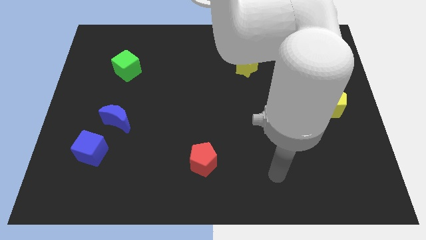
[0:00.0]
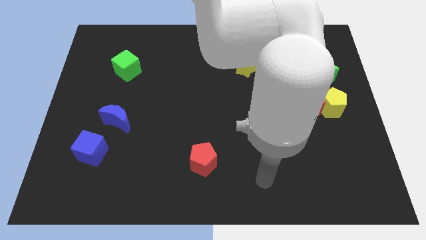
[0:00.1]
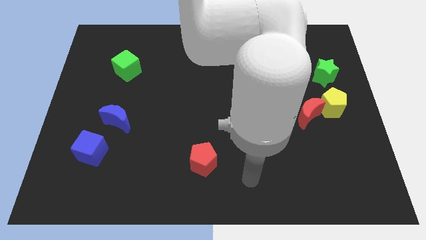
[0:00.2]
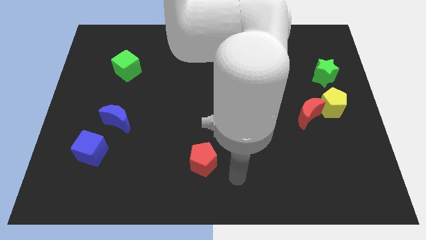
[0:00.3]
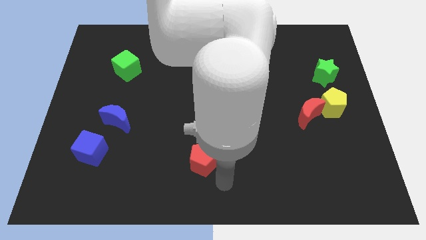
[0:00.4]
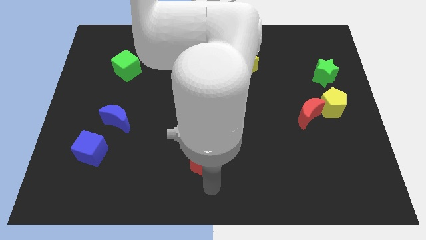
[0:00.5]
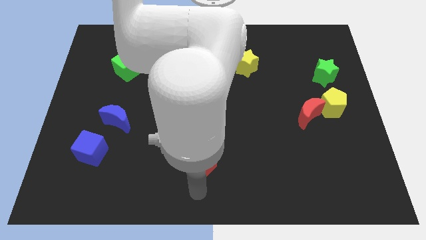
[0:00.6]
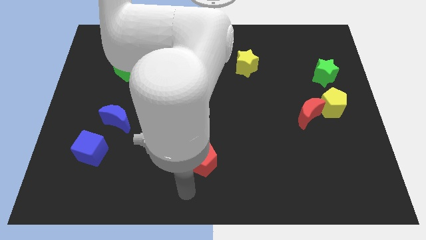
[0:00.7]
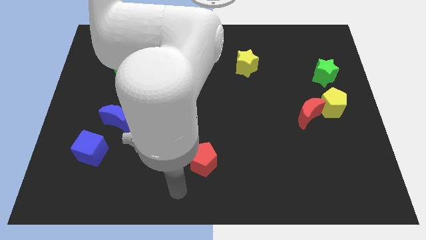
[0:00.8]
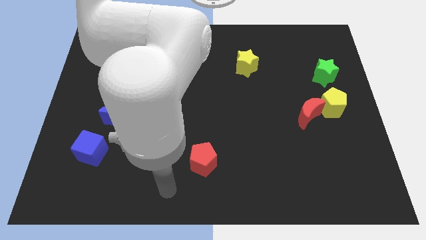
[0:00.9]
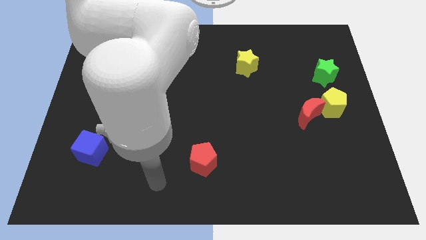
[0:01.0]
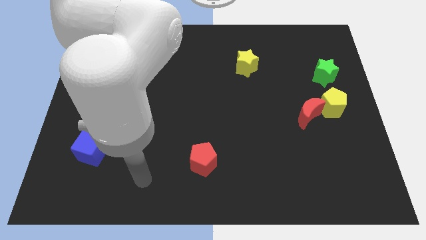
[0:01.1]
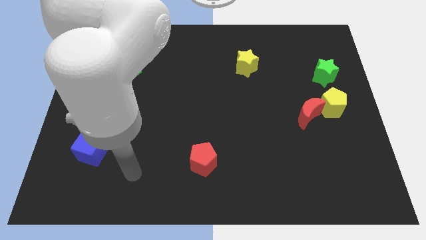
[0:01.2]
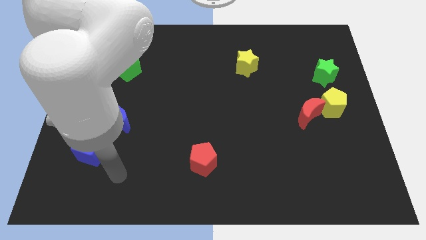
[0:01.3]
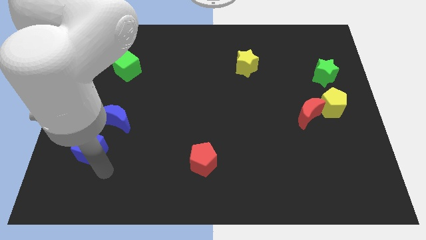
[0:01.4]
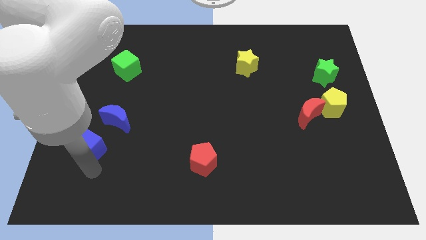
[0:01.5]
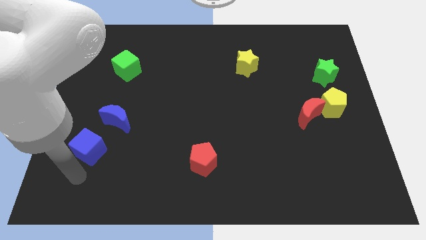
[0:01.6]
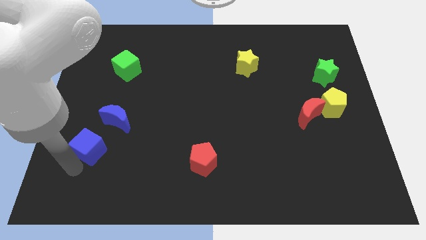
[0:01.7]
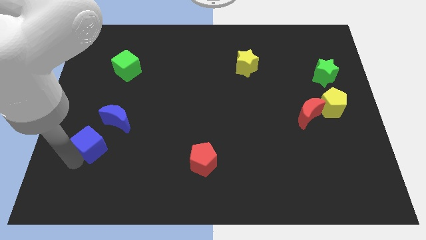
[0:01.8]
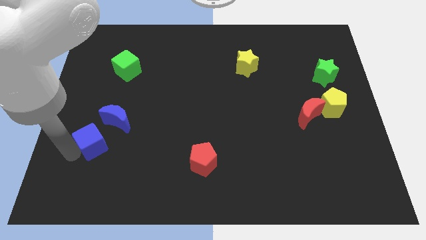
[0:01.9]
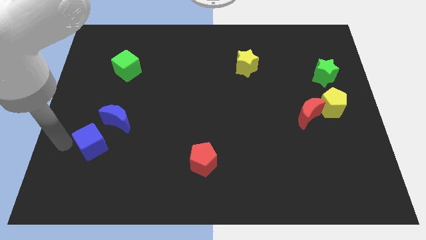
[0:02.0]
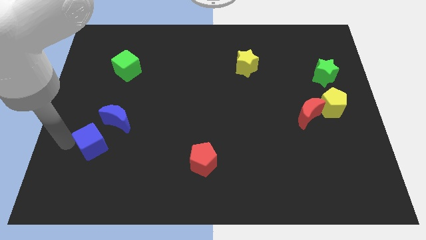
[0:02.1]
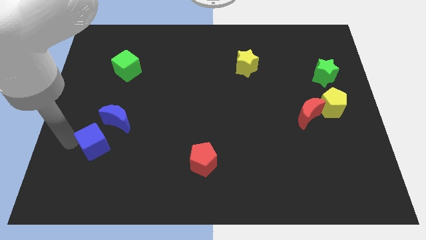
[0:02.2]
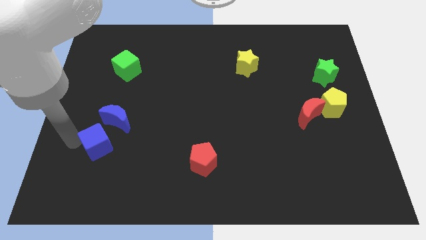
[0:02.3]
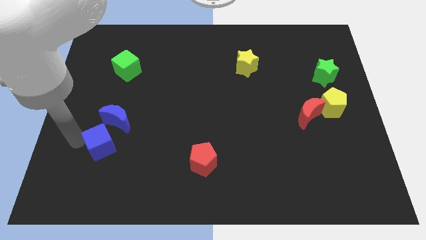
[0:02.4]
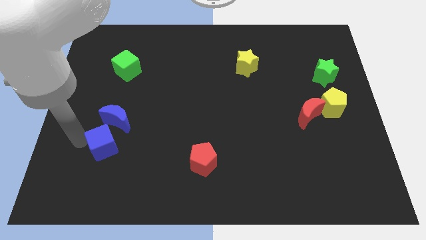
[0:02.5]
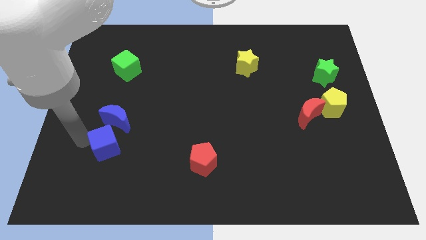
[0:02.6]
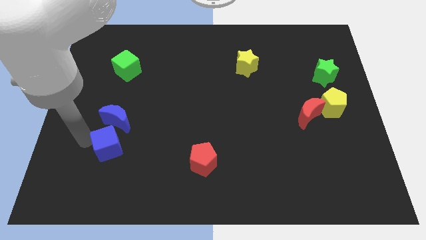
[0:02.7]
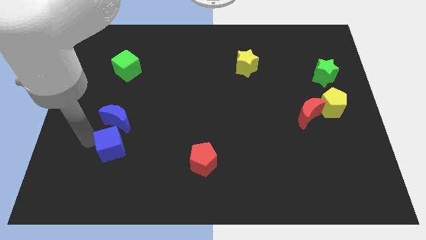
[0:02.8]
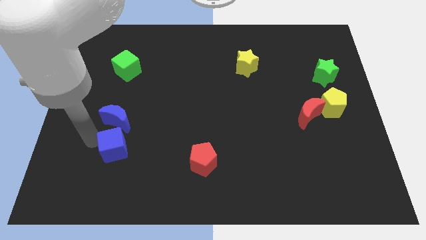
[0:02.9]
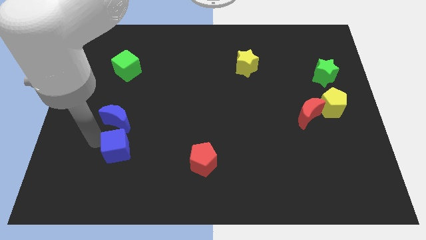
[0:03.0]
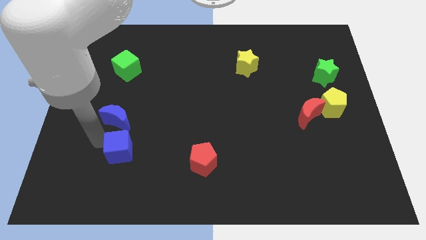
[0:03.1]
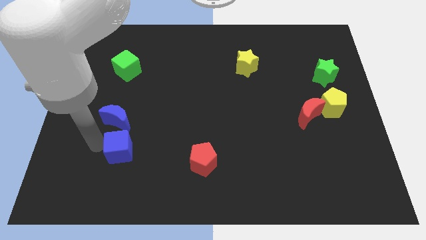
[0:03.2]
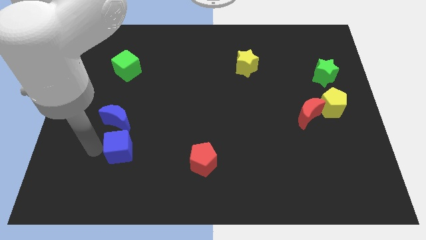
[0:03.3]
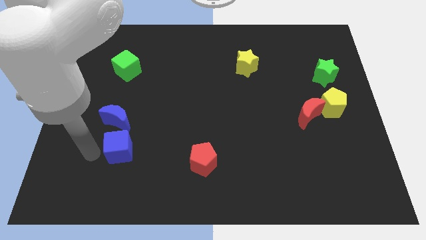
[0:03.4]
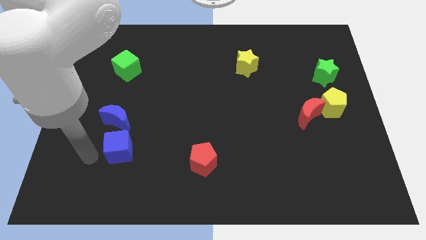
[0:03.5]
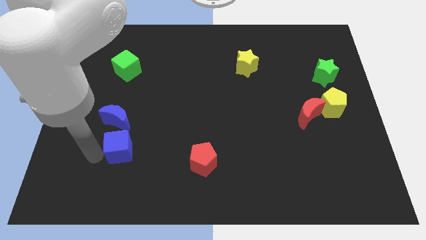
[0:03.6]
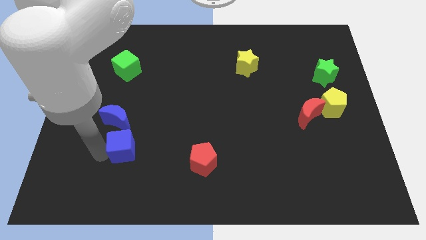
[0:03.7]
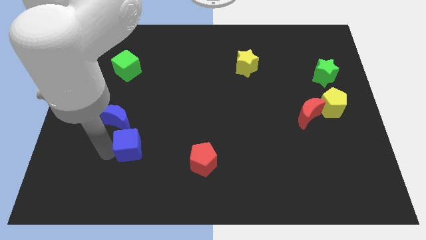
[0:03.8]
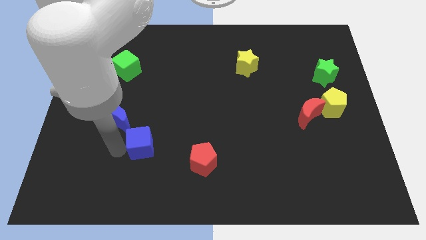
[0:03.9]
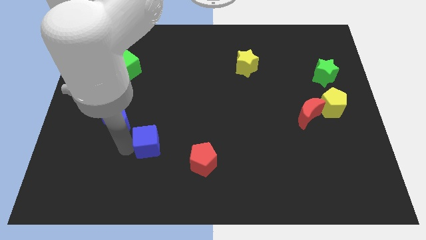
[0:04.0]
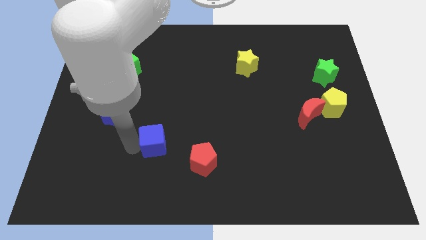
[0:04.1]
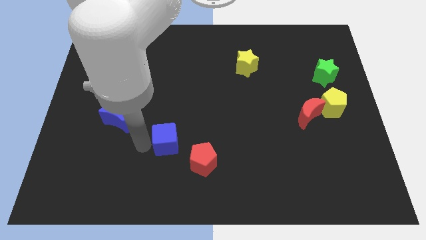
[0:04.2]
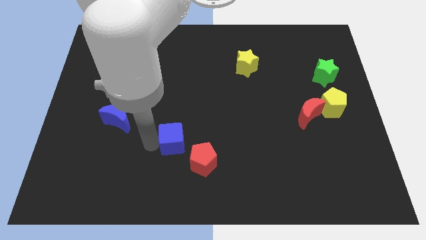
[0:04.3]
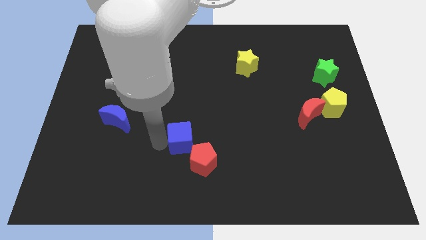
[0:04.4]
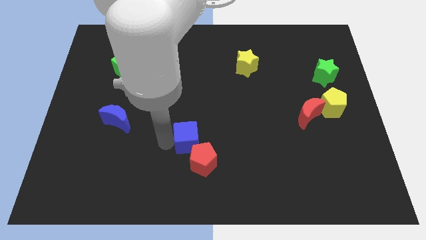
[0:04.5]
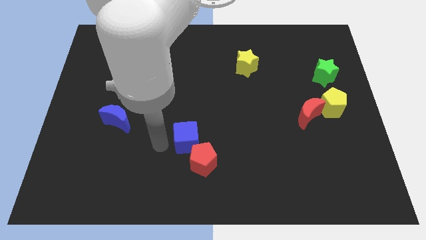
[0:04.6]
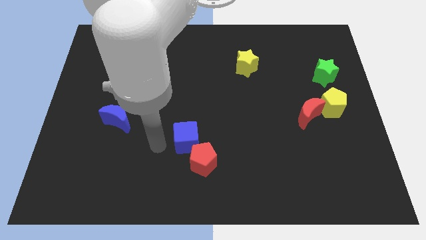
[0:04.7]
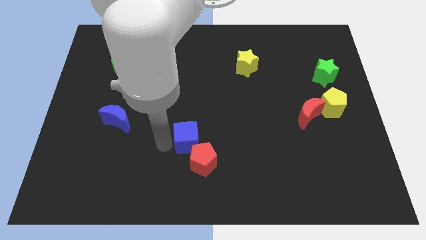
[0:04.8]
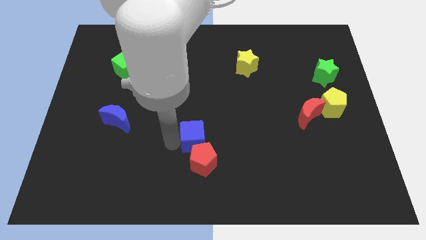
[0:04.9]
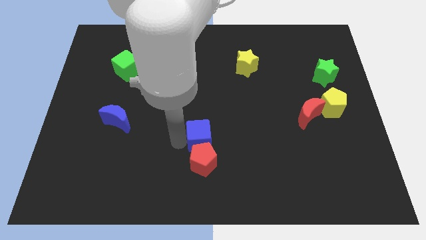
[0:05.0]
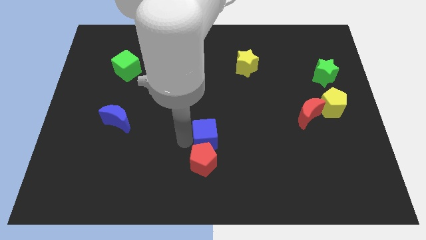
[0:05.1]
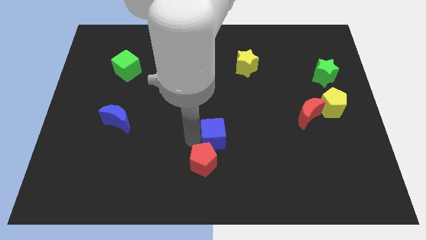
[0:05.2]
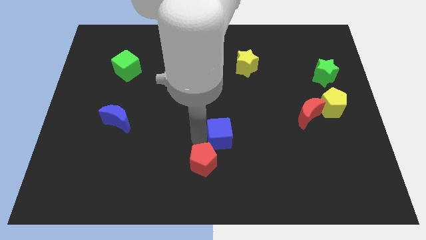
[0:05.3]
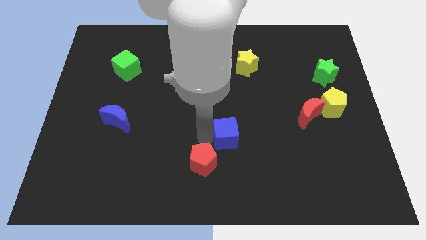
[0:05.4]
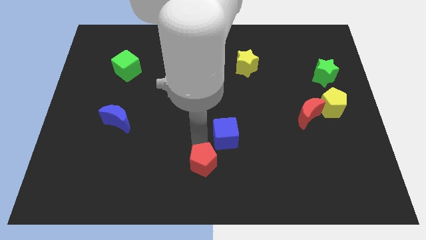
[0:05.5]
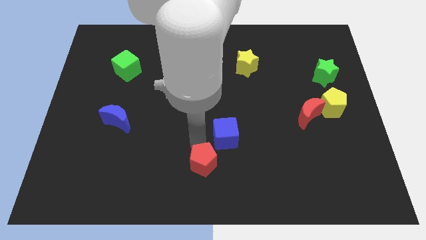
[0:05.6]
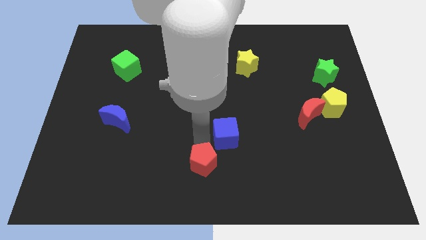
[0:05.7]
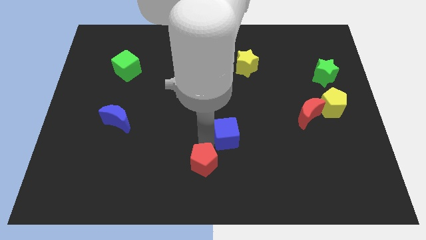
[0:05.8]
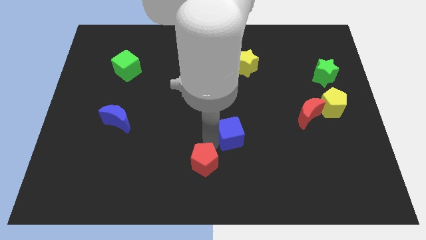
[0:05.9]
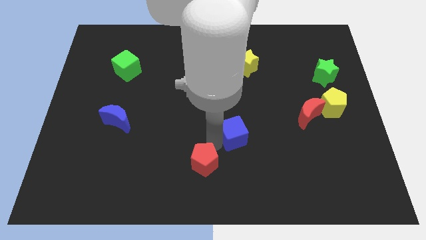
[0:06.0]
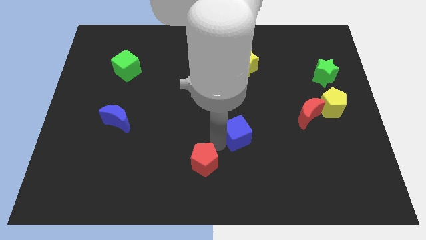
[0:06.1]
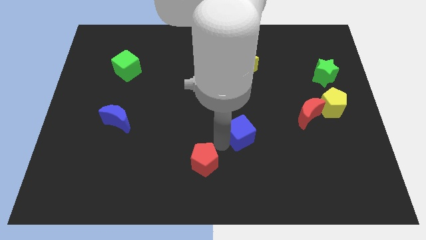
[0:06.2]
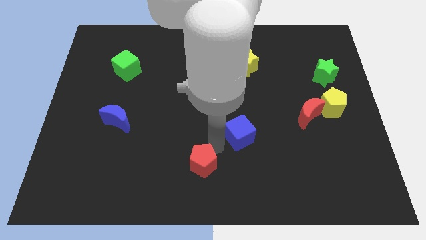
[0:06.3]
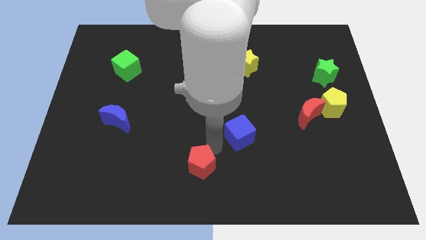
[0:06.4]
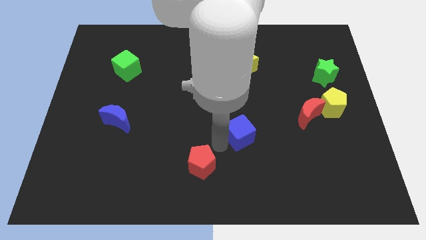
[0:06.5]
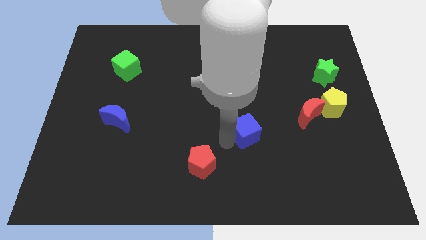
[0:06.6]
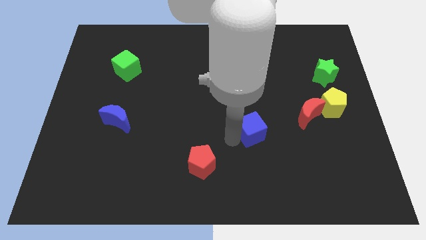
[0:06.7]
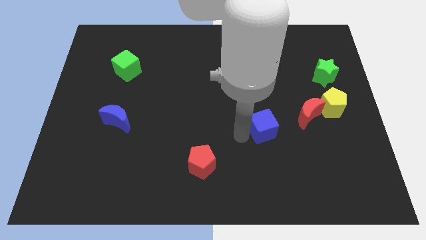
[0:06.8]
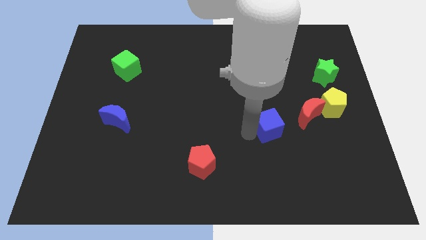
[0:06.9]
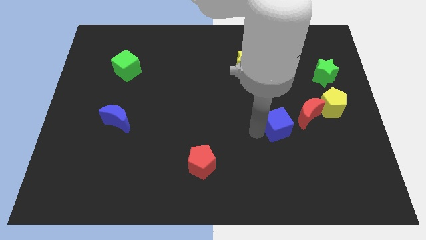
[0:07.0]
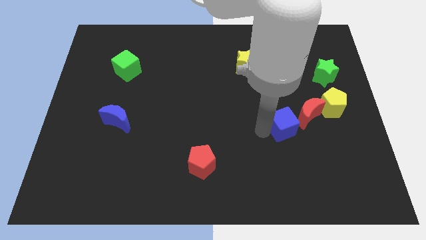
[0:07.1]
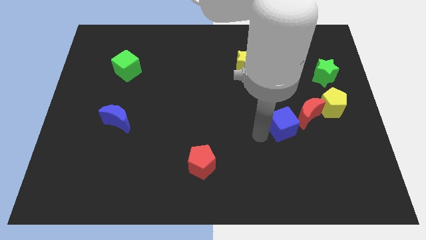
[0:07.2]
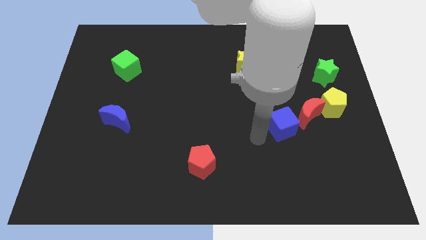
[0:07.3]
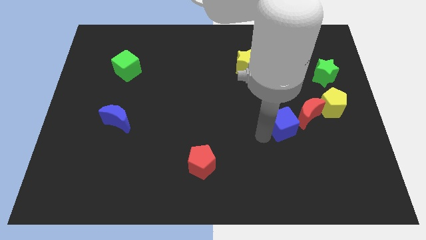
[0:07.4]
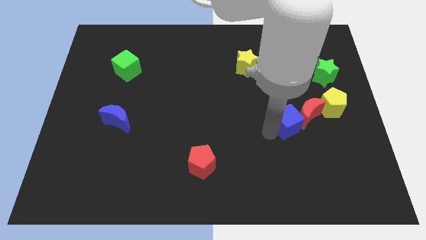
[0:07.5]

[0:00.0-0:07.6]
put the blue cube next to the red moon
